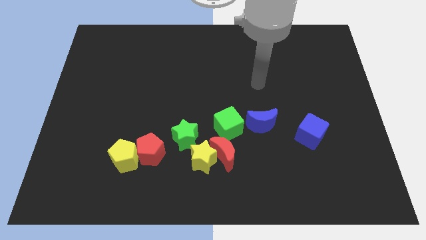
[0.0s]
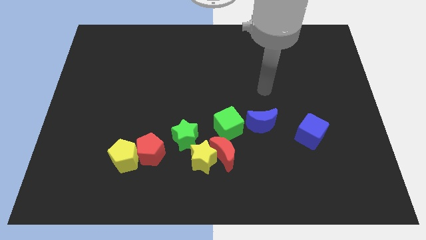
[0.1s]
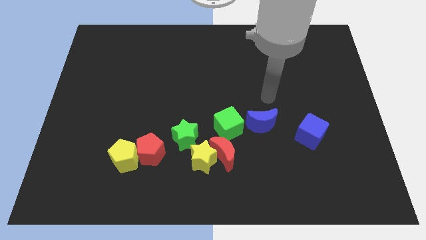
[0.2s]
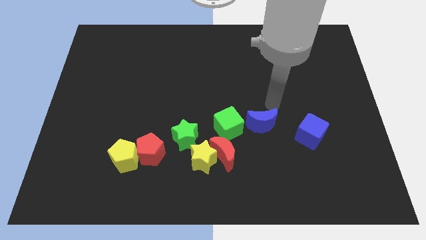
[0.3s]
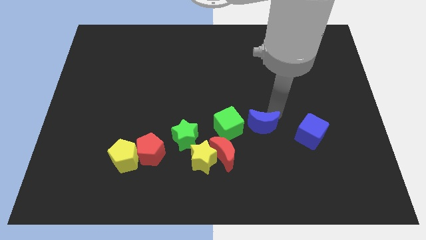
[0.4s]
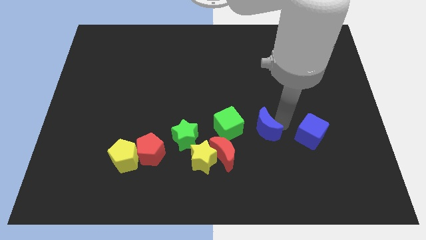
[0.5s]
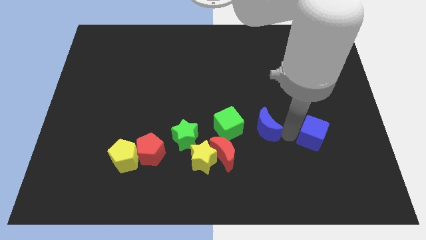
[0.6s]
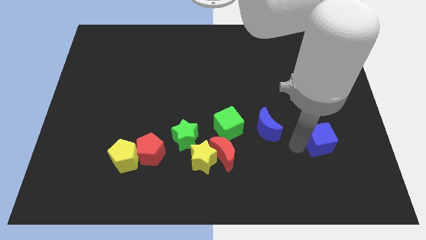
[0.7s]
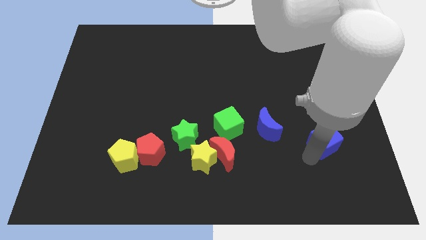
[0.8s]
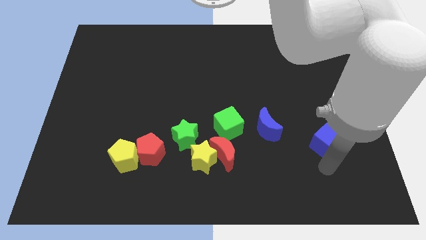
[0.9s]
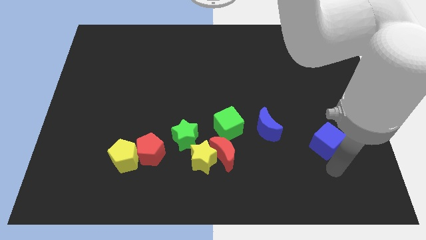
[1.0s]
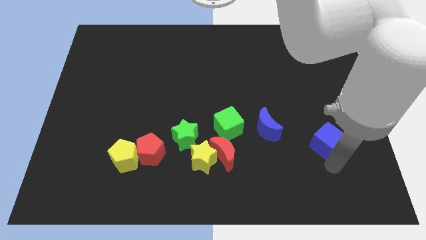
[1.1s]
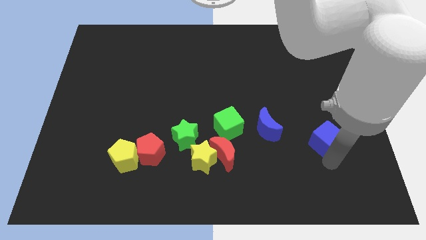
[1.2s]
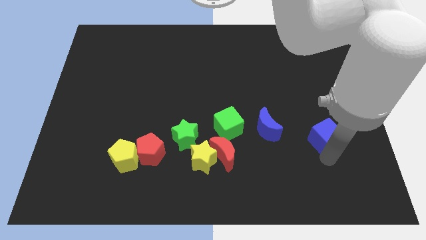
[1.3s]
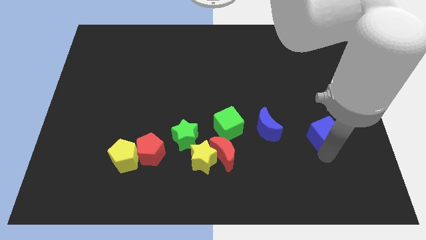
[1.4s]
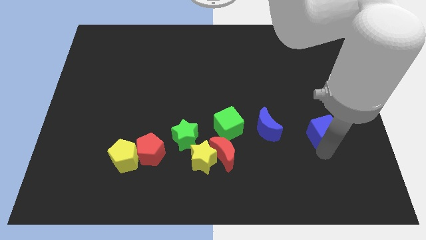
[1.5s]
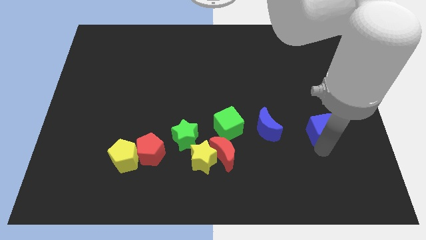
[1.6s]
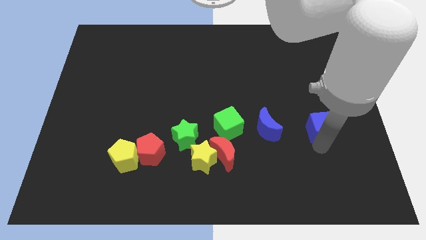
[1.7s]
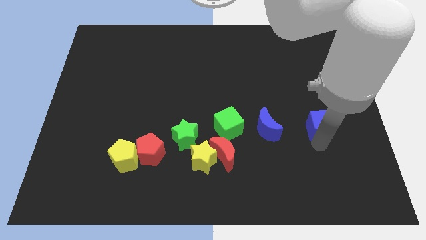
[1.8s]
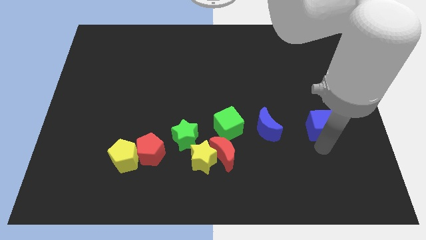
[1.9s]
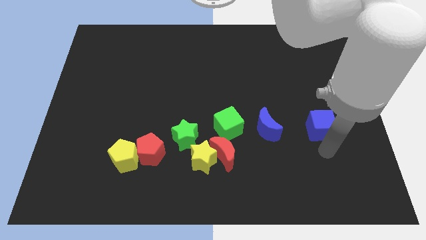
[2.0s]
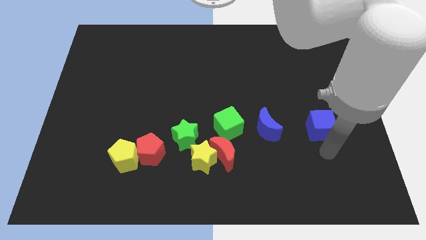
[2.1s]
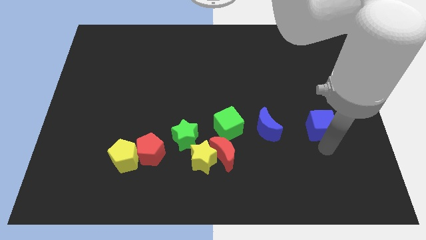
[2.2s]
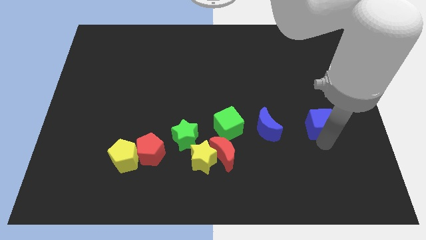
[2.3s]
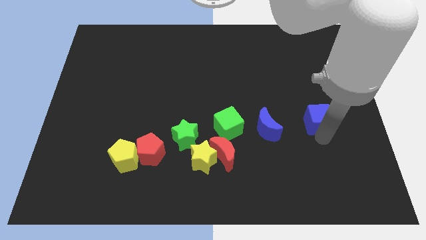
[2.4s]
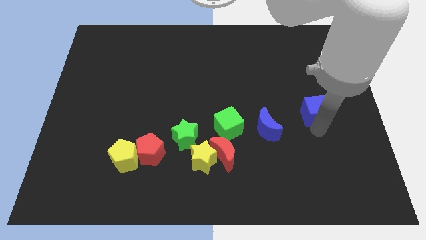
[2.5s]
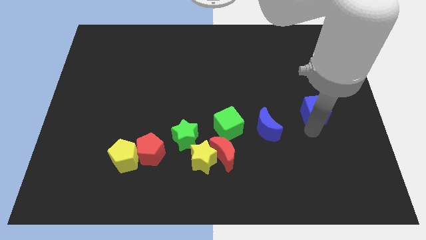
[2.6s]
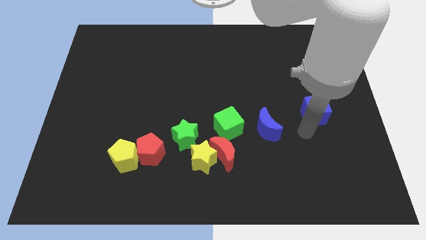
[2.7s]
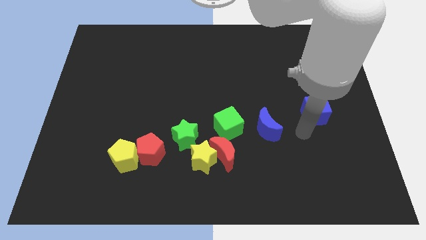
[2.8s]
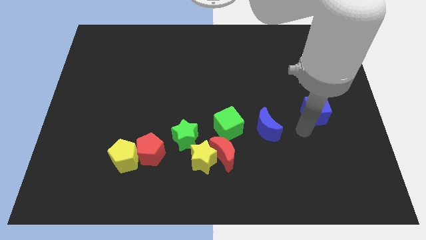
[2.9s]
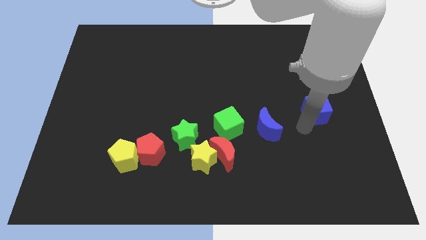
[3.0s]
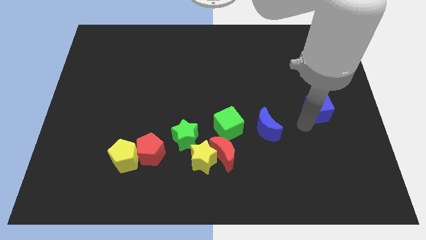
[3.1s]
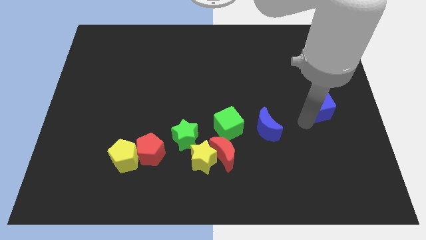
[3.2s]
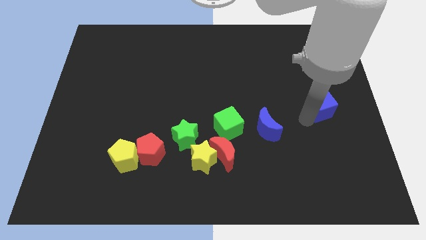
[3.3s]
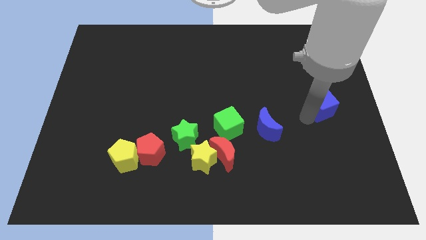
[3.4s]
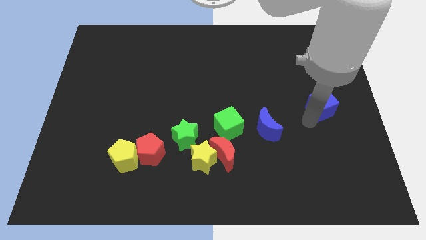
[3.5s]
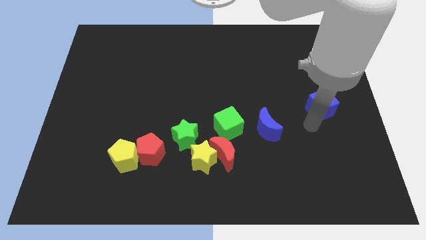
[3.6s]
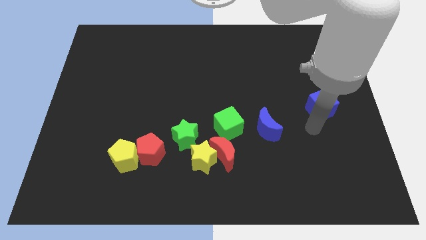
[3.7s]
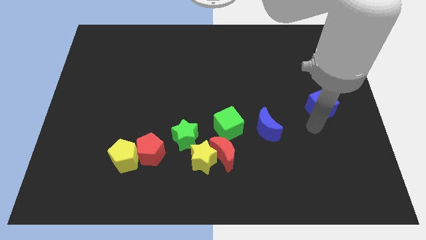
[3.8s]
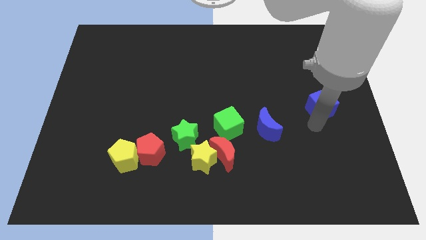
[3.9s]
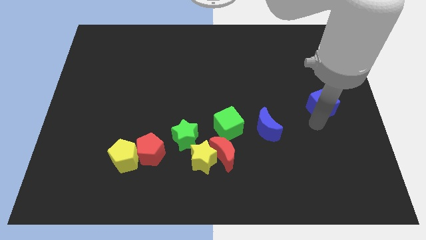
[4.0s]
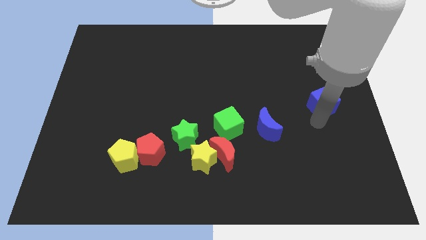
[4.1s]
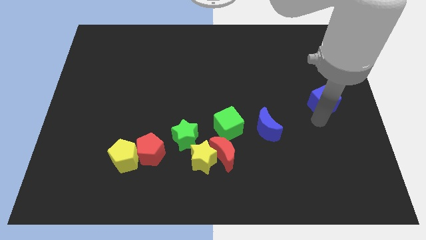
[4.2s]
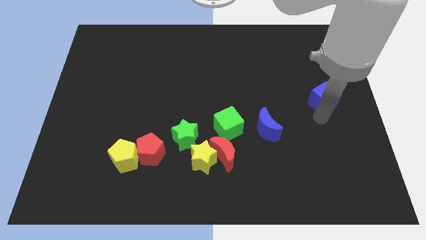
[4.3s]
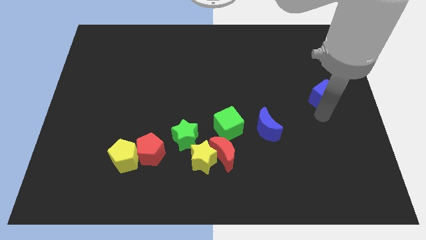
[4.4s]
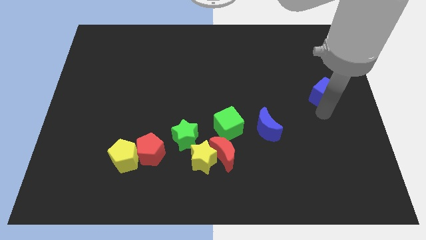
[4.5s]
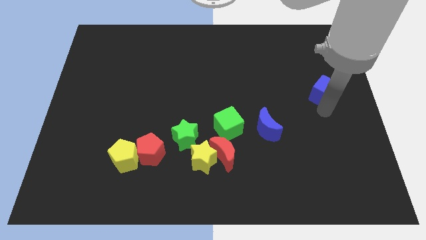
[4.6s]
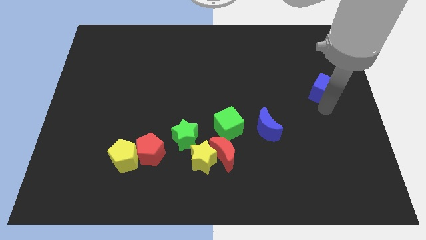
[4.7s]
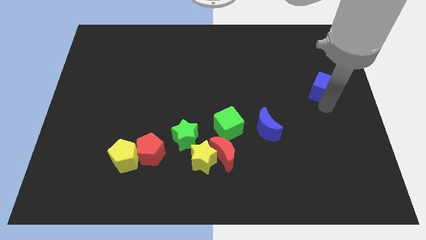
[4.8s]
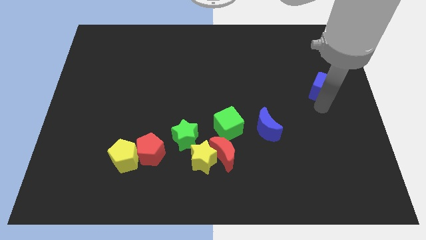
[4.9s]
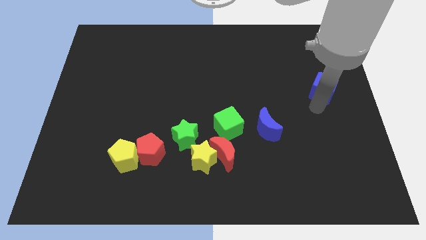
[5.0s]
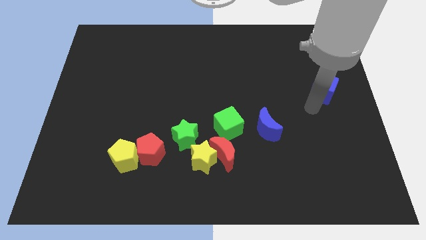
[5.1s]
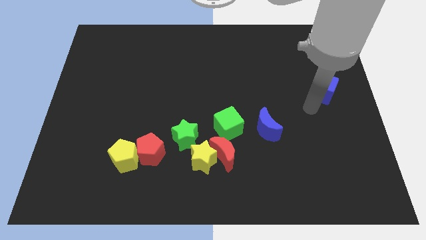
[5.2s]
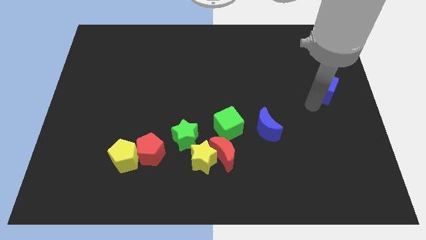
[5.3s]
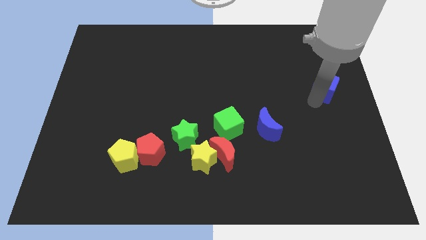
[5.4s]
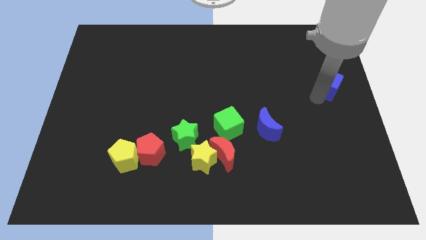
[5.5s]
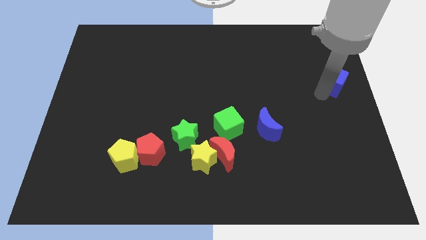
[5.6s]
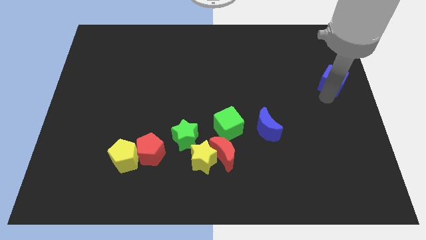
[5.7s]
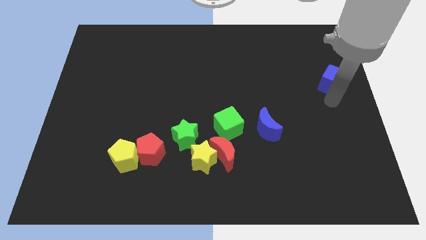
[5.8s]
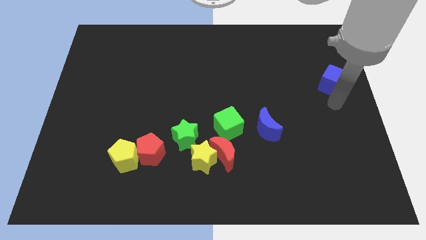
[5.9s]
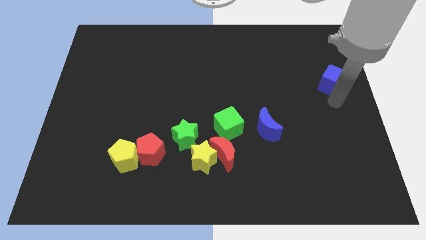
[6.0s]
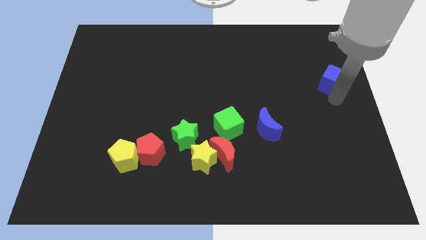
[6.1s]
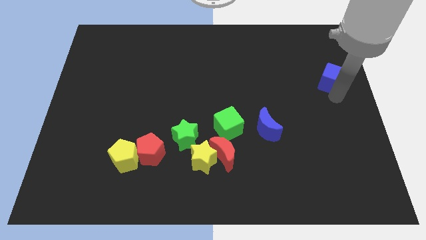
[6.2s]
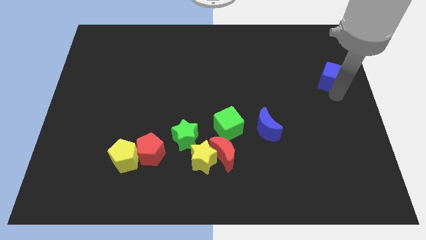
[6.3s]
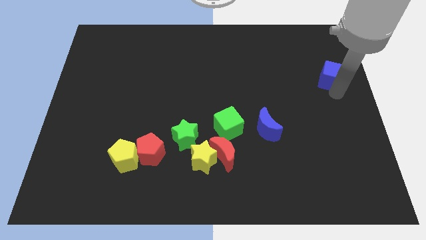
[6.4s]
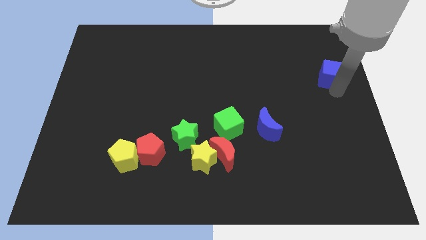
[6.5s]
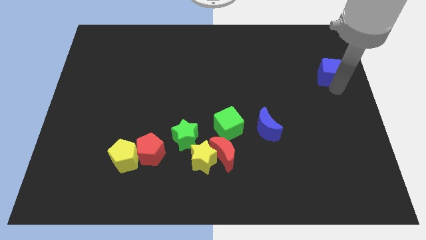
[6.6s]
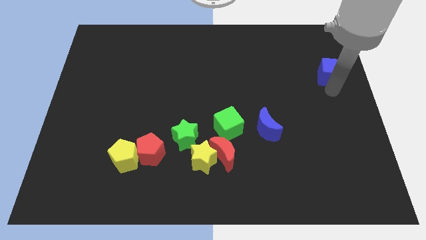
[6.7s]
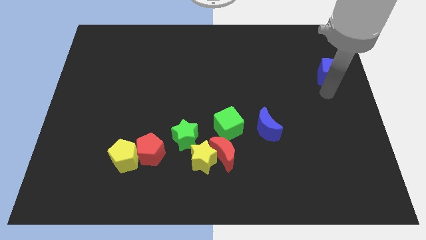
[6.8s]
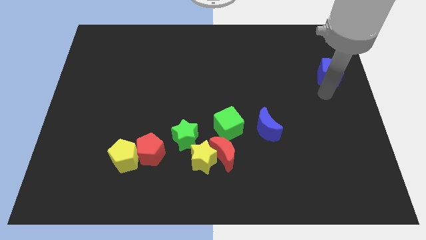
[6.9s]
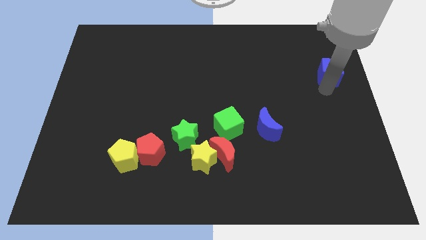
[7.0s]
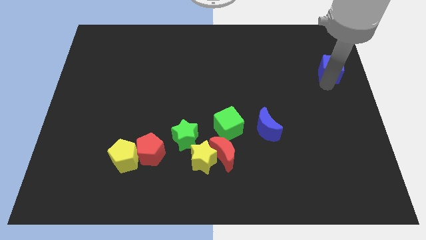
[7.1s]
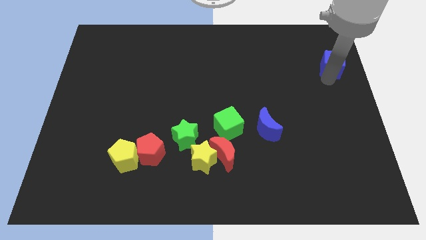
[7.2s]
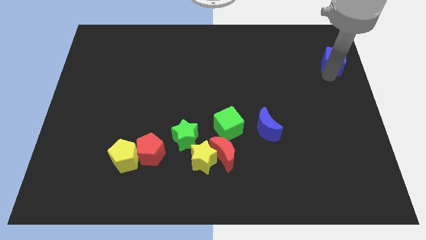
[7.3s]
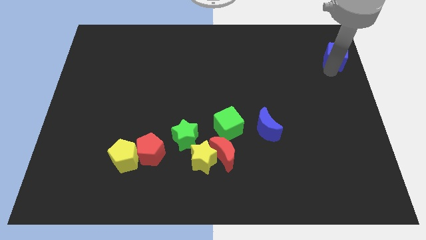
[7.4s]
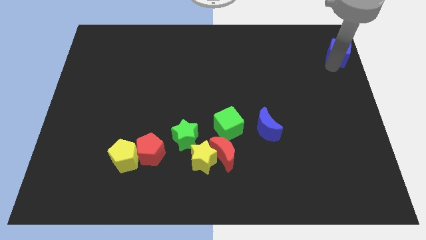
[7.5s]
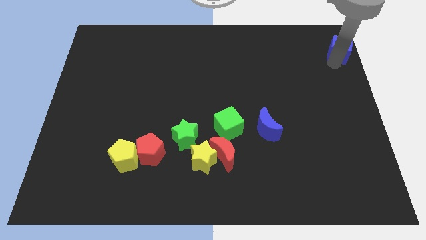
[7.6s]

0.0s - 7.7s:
move the blue cube to the upper right corner
